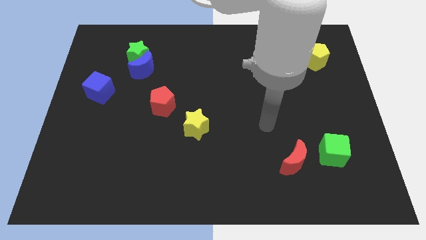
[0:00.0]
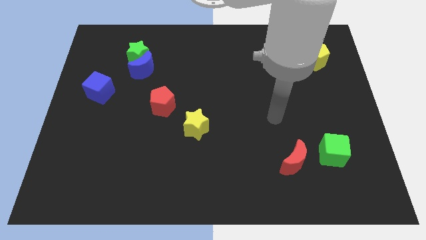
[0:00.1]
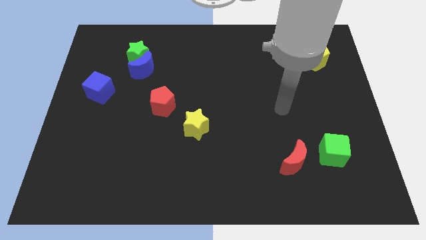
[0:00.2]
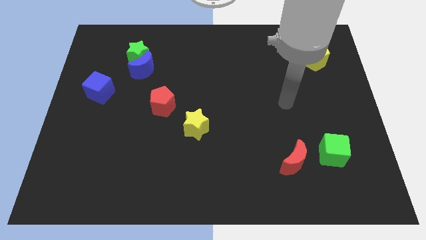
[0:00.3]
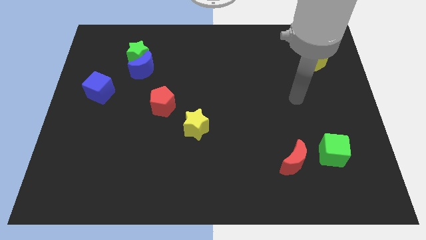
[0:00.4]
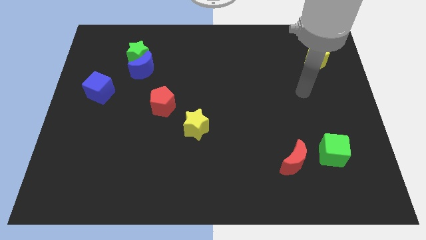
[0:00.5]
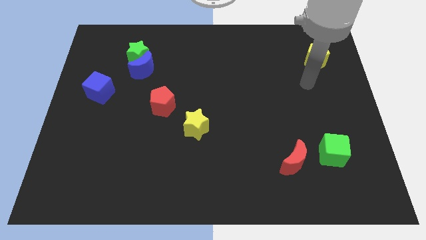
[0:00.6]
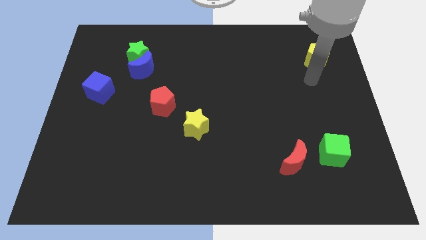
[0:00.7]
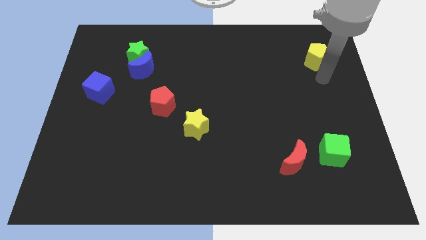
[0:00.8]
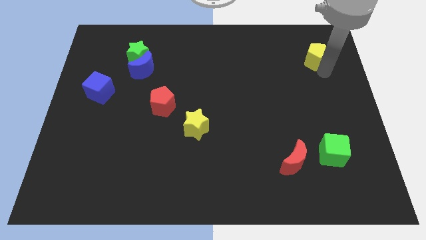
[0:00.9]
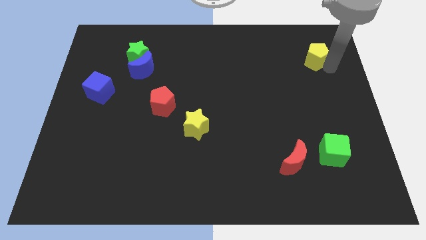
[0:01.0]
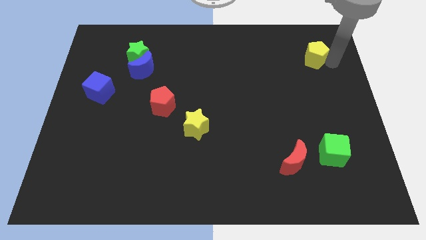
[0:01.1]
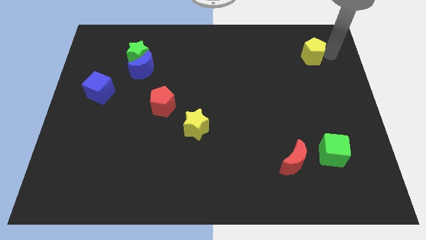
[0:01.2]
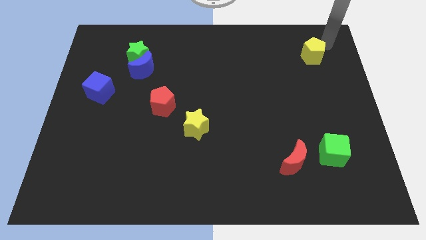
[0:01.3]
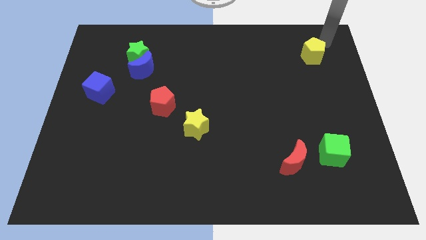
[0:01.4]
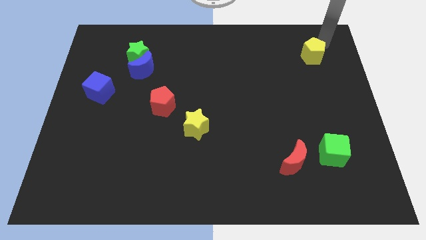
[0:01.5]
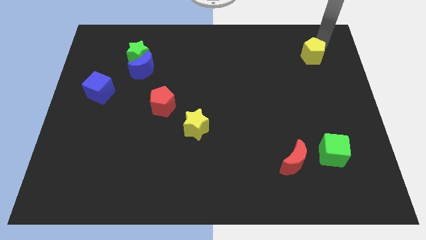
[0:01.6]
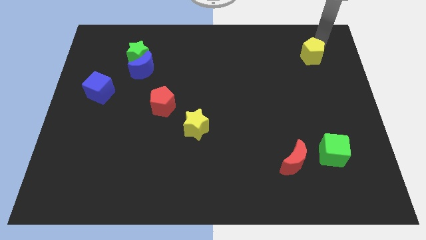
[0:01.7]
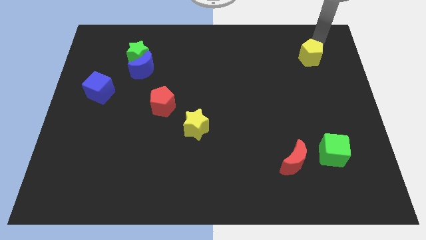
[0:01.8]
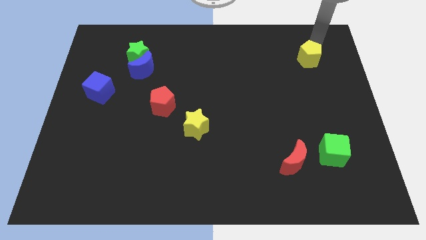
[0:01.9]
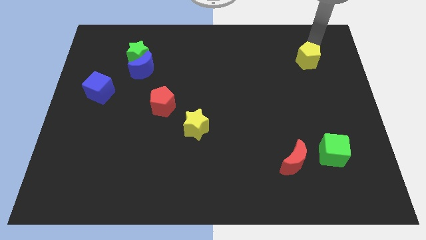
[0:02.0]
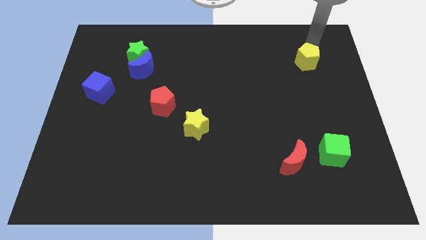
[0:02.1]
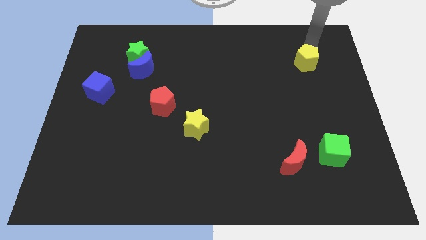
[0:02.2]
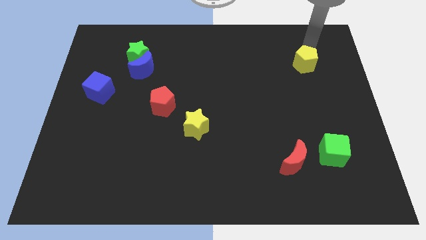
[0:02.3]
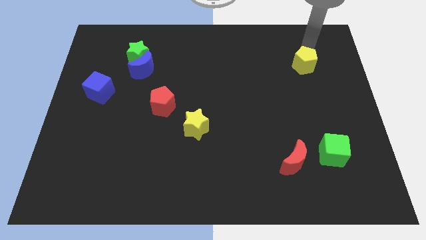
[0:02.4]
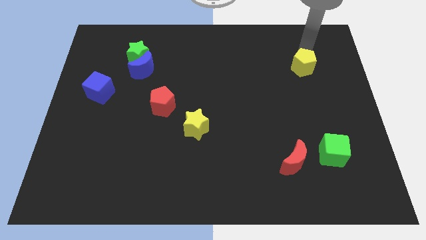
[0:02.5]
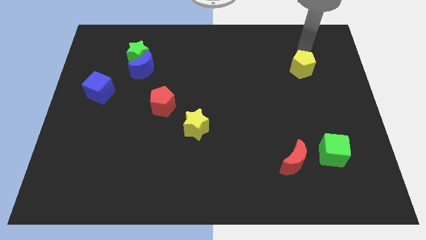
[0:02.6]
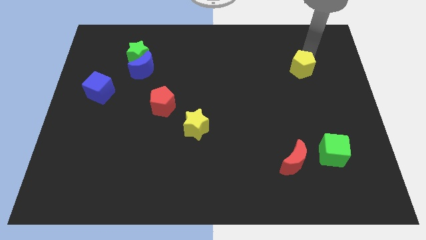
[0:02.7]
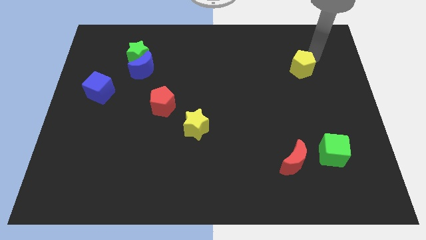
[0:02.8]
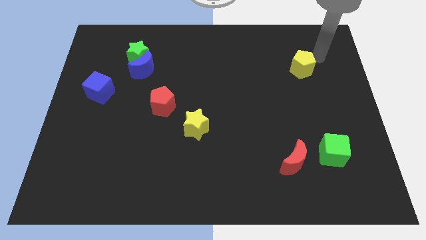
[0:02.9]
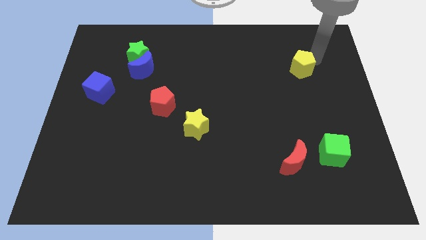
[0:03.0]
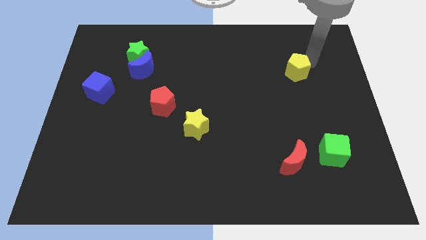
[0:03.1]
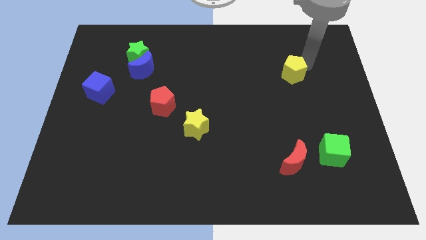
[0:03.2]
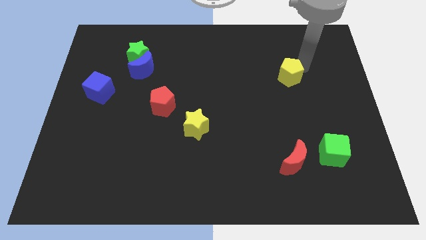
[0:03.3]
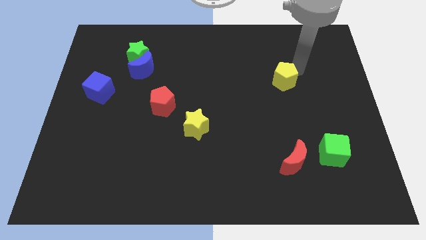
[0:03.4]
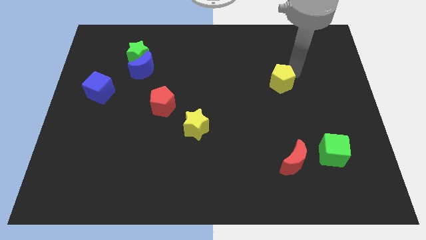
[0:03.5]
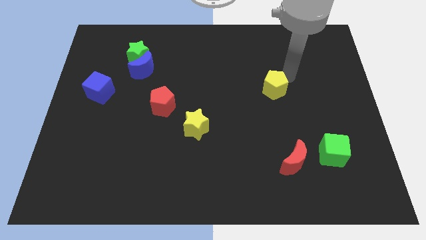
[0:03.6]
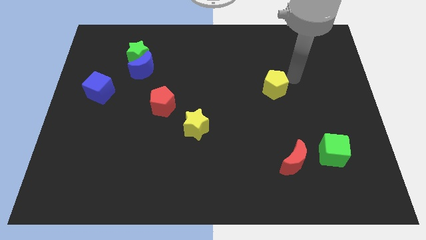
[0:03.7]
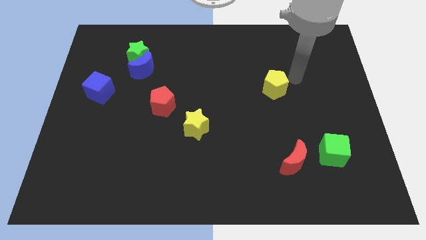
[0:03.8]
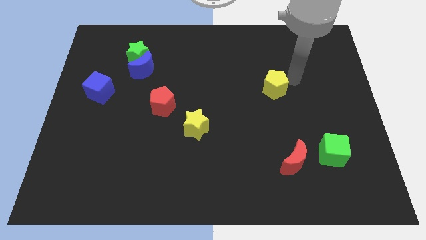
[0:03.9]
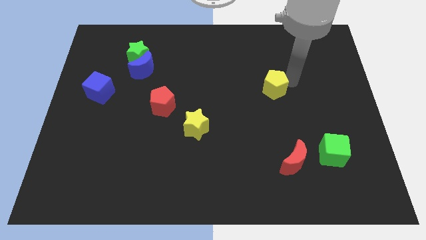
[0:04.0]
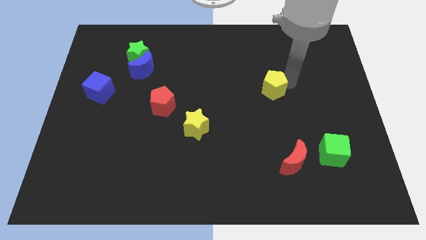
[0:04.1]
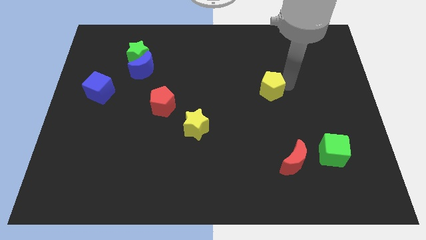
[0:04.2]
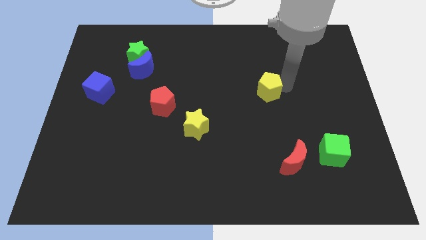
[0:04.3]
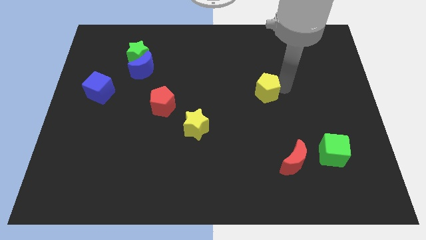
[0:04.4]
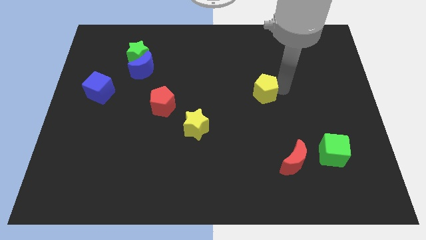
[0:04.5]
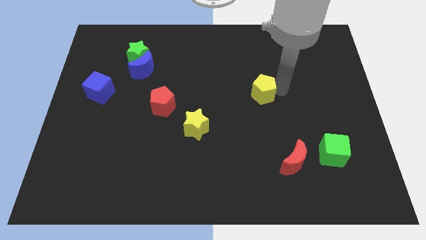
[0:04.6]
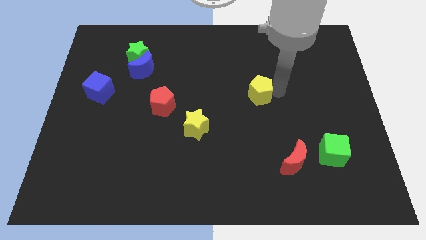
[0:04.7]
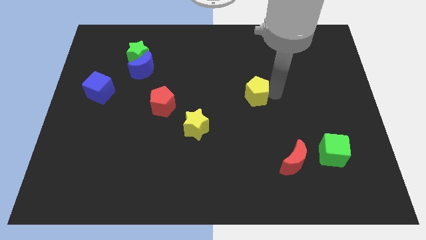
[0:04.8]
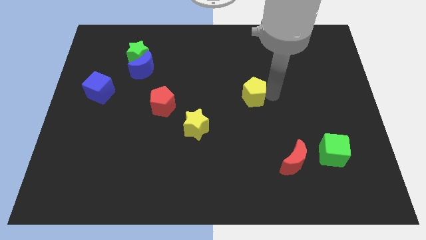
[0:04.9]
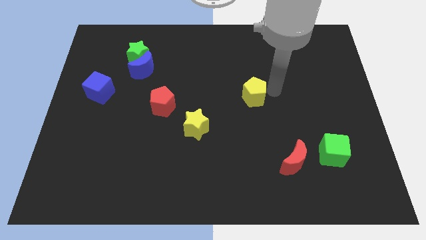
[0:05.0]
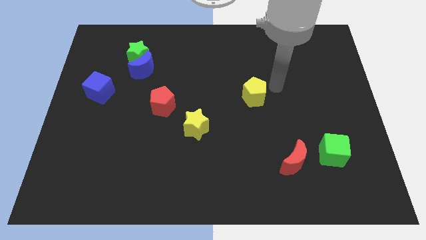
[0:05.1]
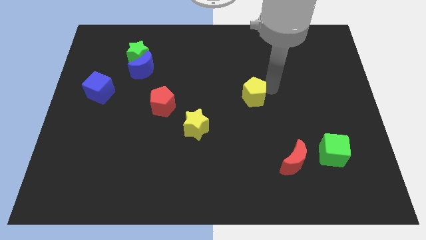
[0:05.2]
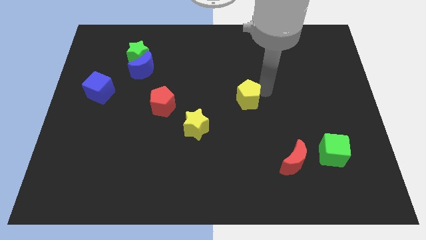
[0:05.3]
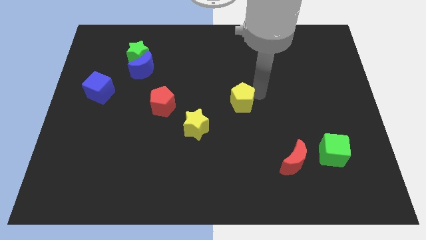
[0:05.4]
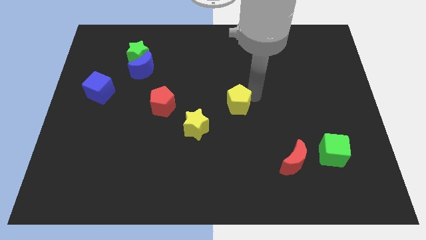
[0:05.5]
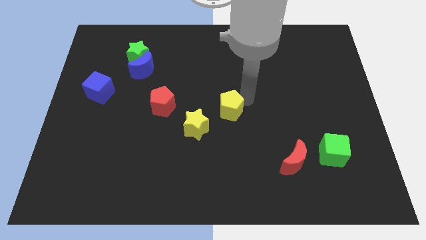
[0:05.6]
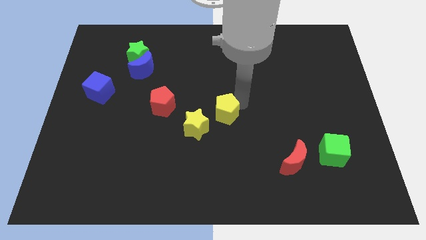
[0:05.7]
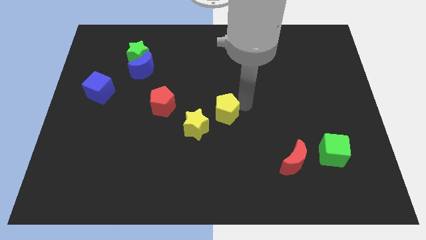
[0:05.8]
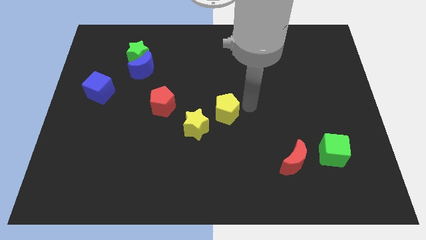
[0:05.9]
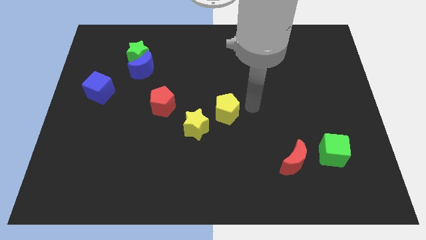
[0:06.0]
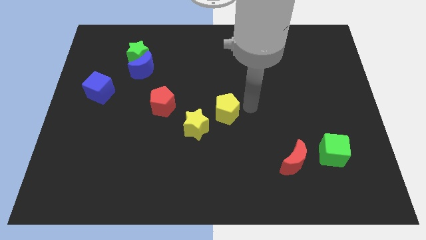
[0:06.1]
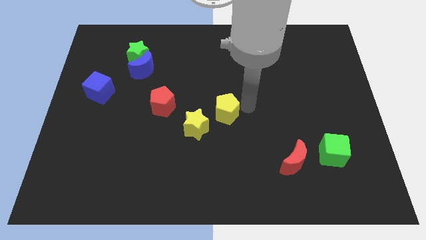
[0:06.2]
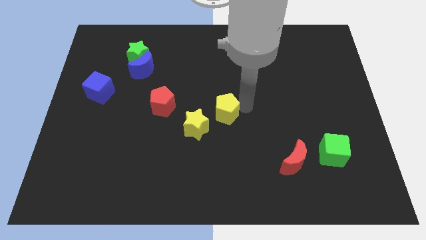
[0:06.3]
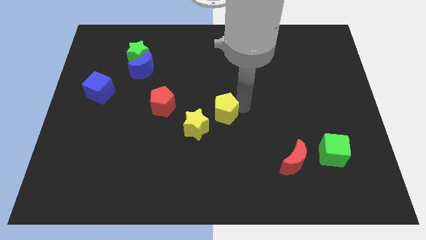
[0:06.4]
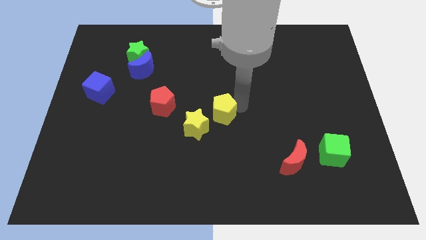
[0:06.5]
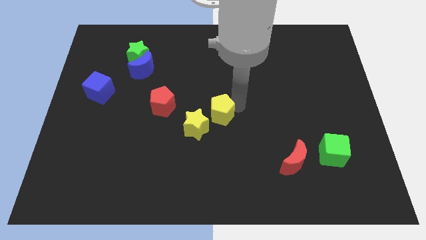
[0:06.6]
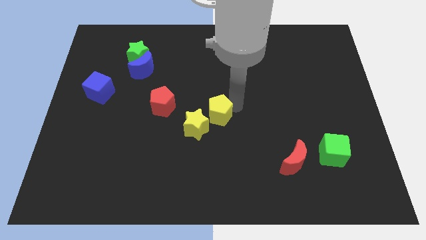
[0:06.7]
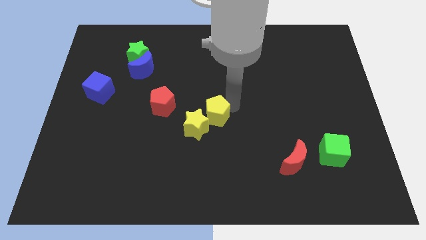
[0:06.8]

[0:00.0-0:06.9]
slide the yellow pentagon next to the yellow star
